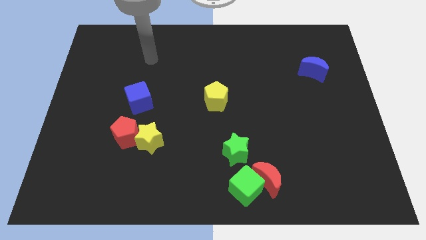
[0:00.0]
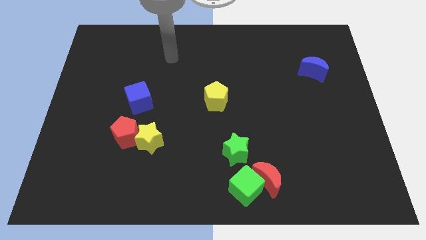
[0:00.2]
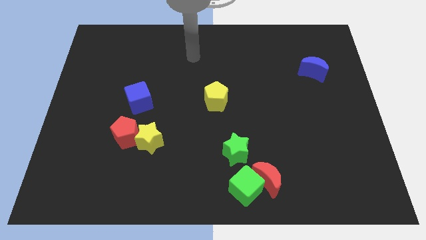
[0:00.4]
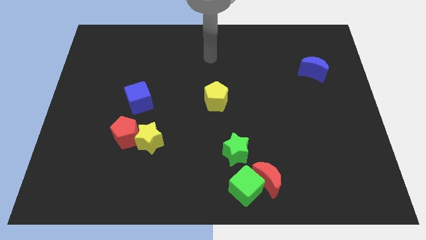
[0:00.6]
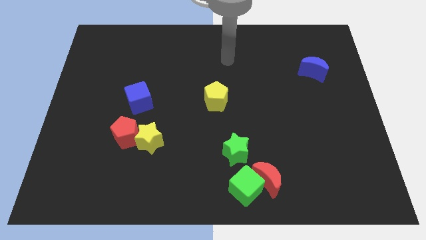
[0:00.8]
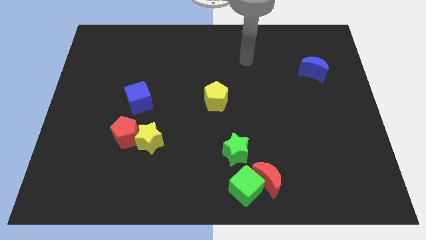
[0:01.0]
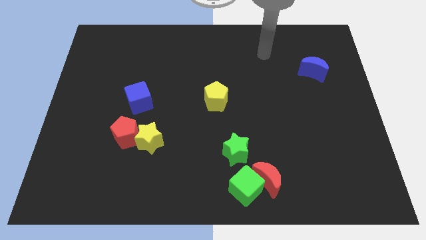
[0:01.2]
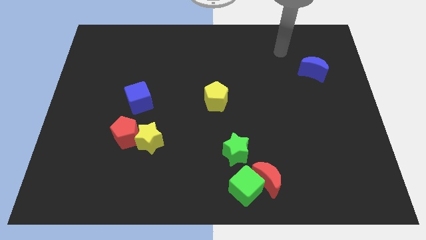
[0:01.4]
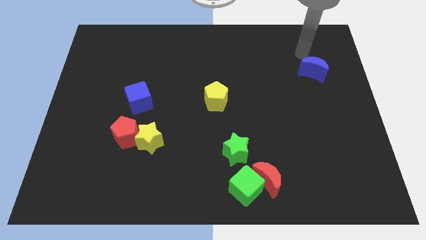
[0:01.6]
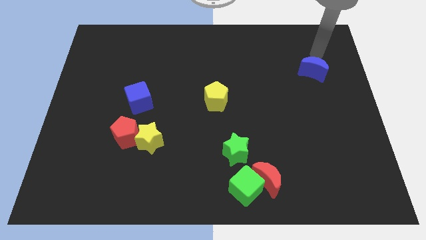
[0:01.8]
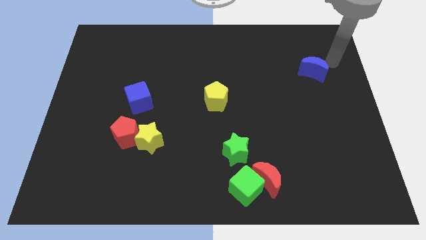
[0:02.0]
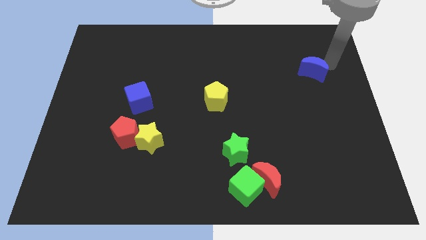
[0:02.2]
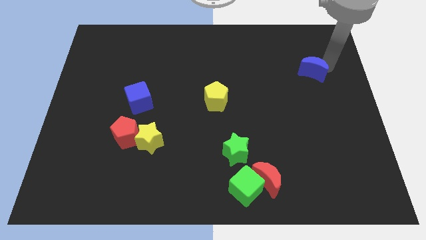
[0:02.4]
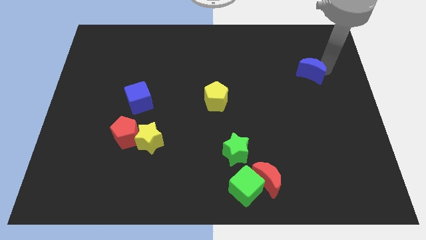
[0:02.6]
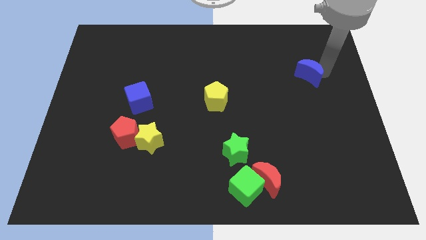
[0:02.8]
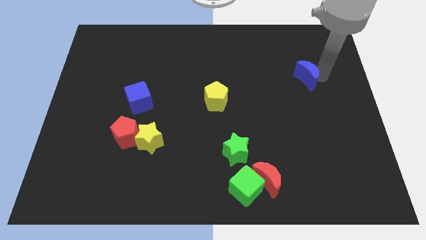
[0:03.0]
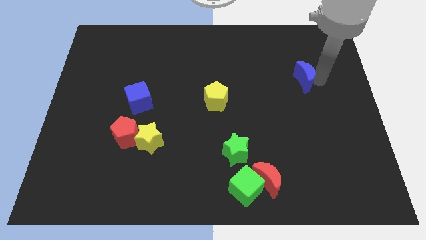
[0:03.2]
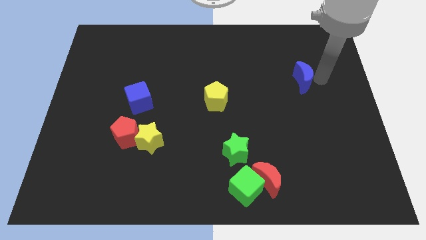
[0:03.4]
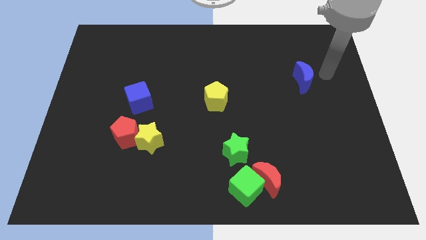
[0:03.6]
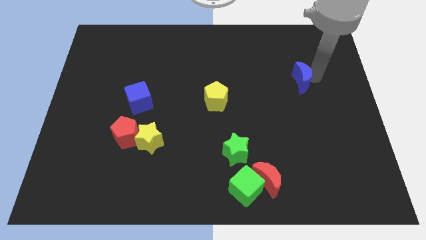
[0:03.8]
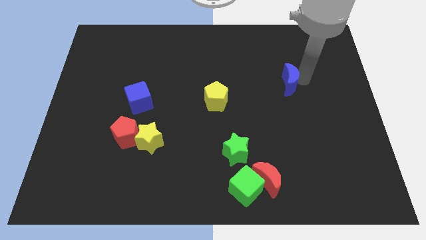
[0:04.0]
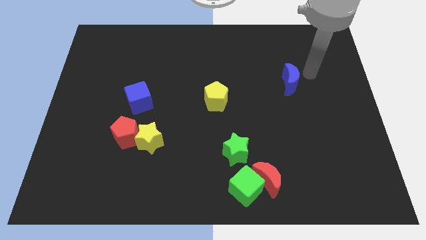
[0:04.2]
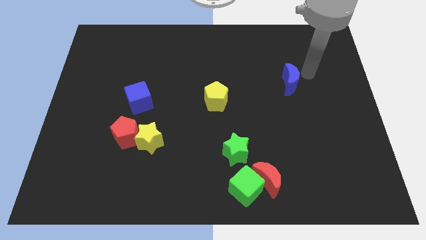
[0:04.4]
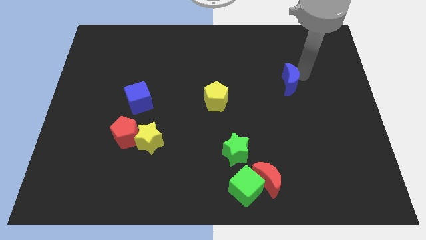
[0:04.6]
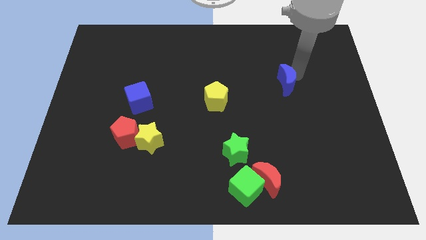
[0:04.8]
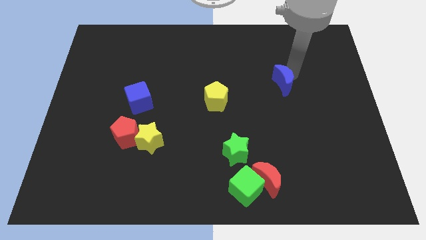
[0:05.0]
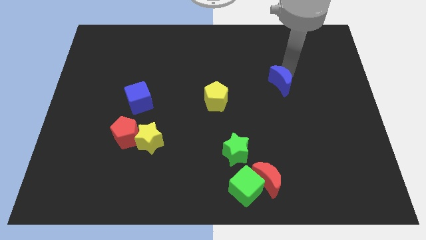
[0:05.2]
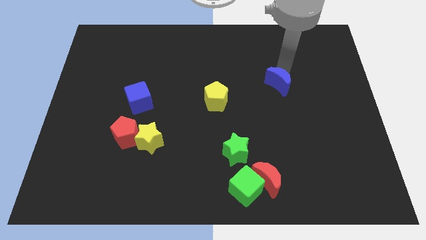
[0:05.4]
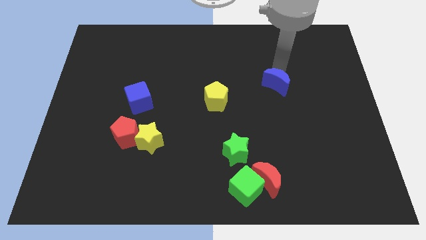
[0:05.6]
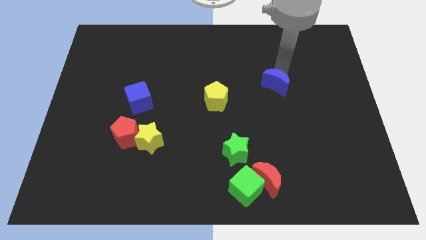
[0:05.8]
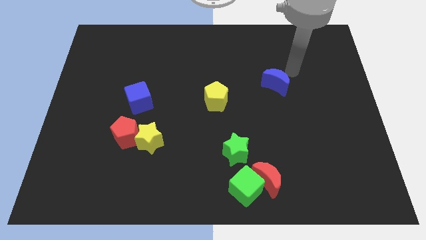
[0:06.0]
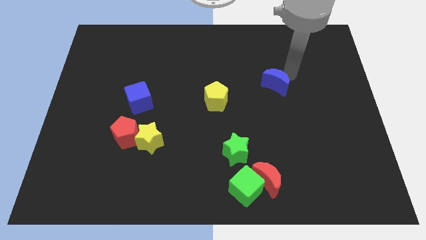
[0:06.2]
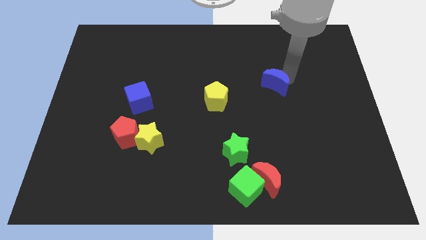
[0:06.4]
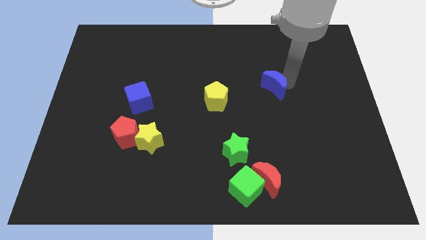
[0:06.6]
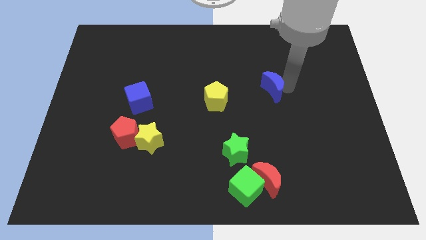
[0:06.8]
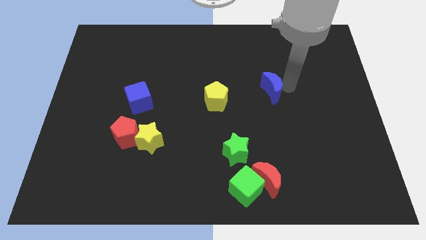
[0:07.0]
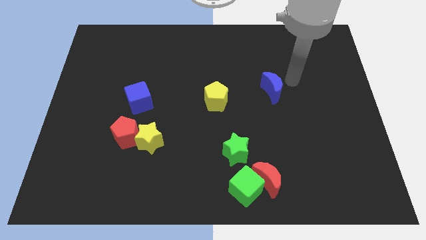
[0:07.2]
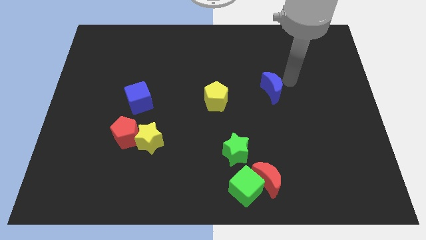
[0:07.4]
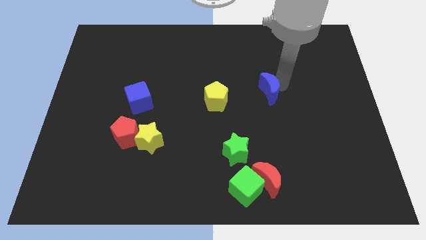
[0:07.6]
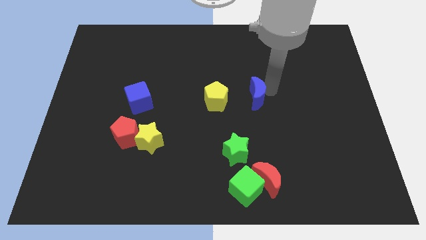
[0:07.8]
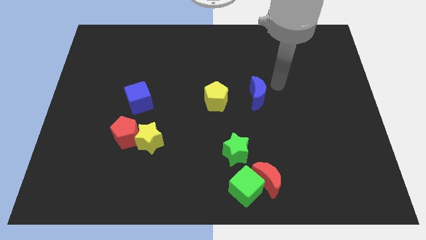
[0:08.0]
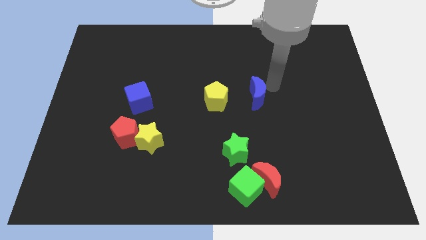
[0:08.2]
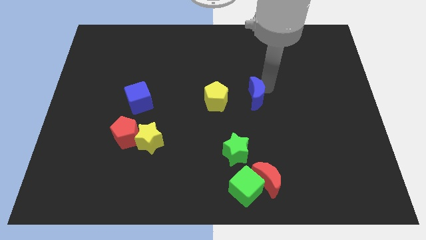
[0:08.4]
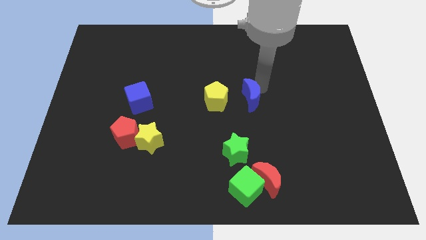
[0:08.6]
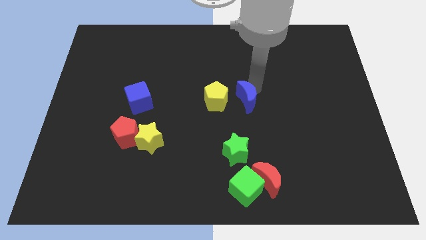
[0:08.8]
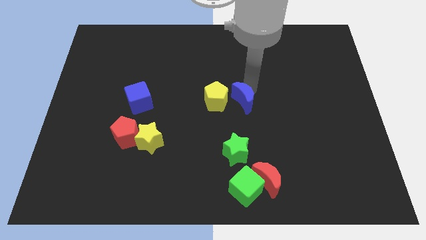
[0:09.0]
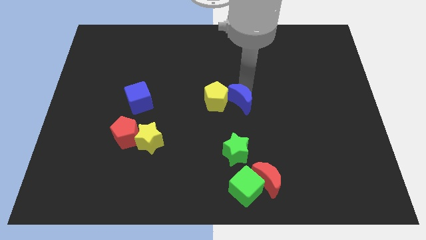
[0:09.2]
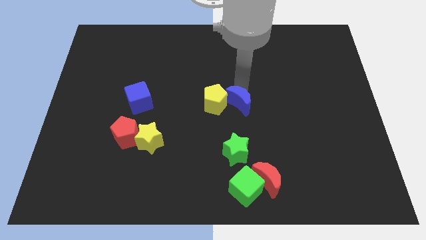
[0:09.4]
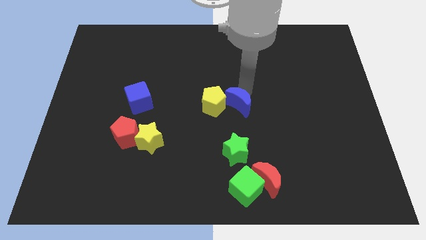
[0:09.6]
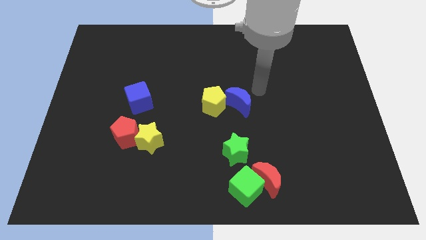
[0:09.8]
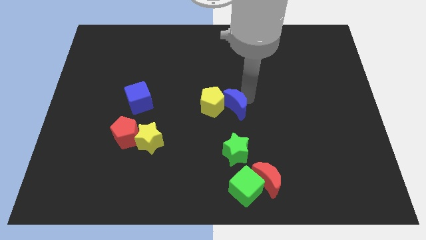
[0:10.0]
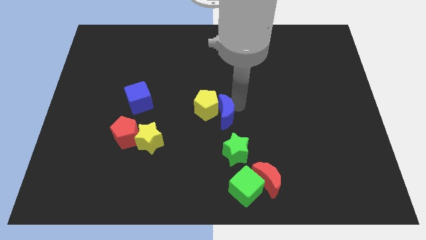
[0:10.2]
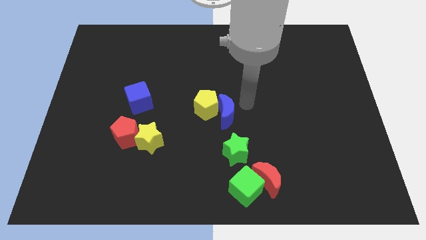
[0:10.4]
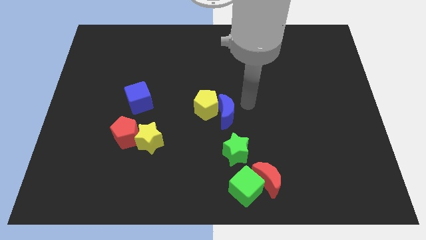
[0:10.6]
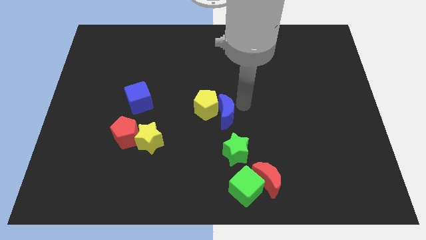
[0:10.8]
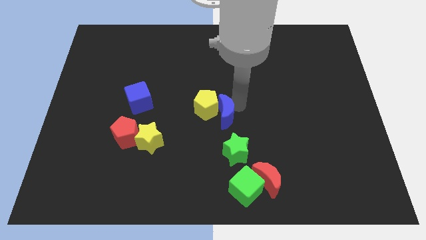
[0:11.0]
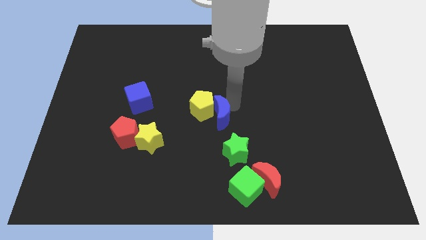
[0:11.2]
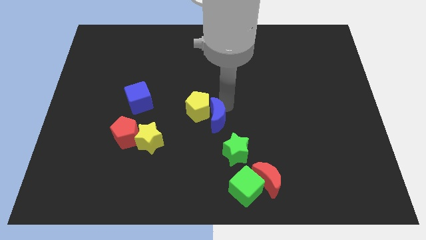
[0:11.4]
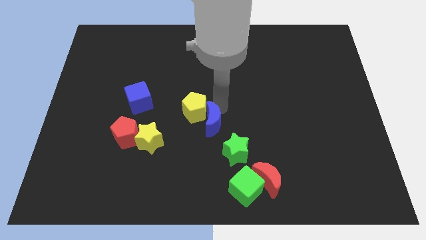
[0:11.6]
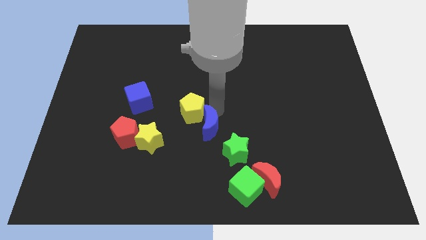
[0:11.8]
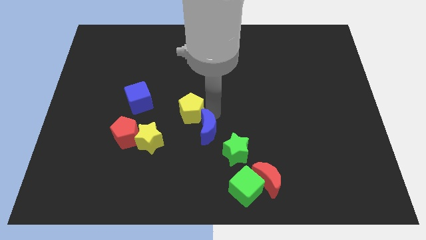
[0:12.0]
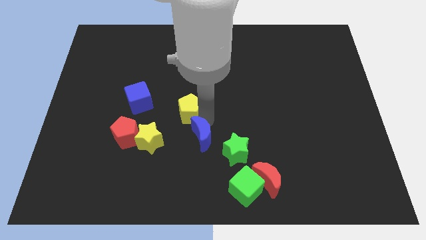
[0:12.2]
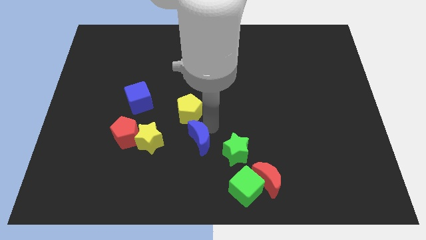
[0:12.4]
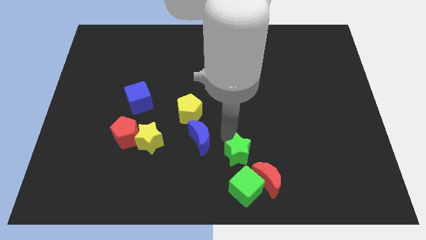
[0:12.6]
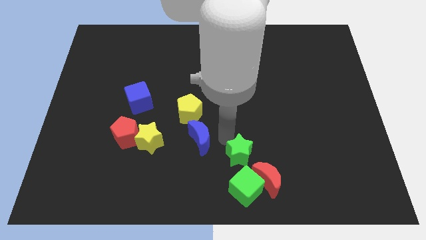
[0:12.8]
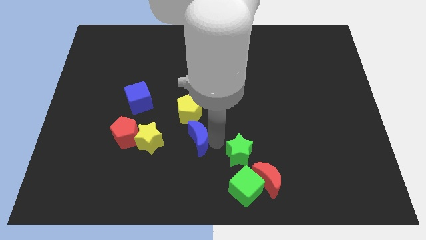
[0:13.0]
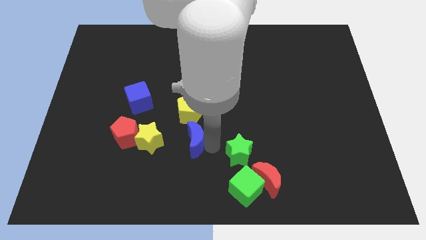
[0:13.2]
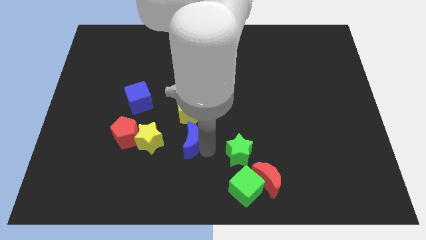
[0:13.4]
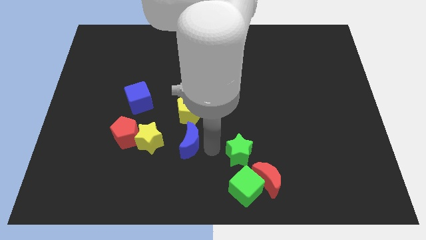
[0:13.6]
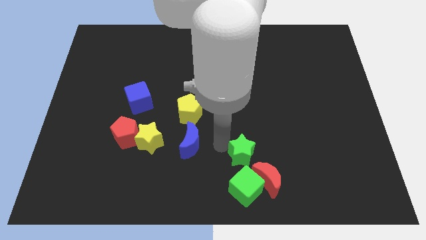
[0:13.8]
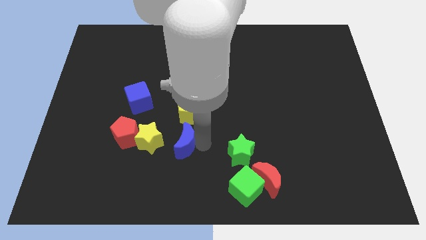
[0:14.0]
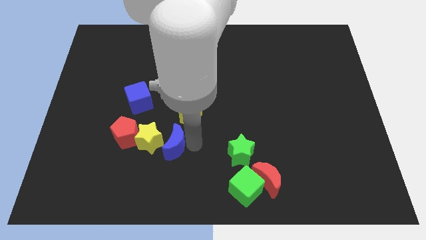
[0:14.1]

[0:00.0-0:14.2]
slide the blue moon next to the yellow star
